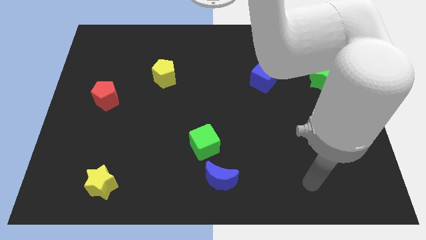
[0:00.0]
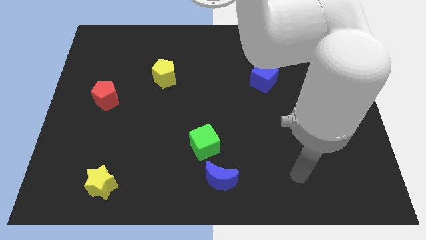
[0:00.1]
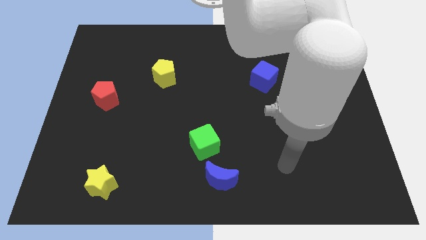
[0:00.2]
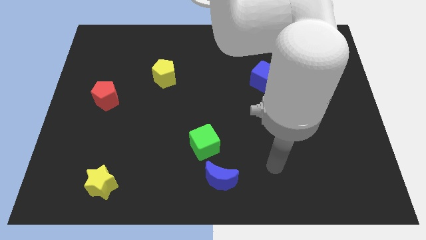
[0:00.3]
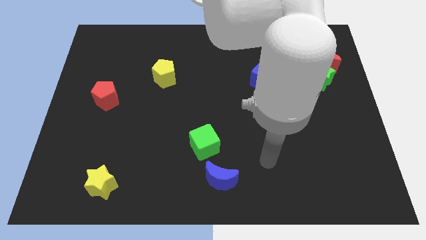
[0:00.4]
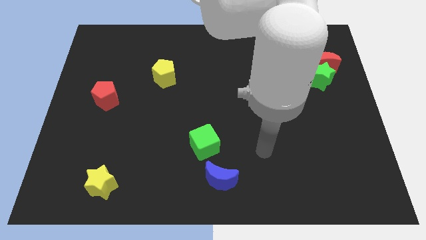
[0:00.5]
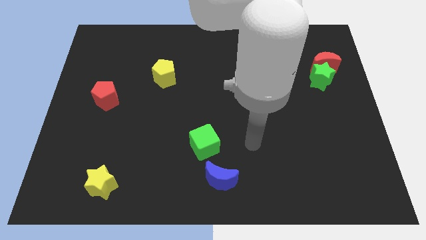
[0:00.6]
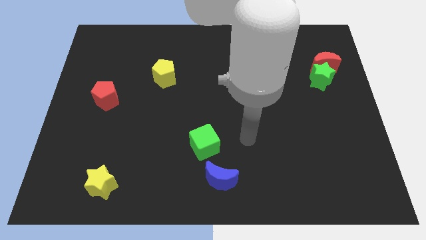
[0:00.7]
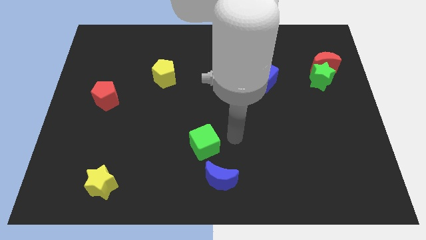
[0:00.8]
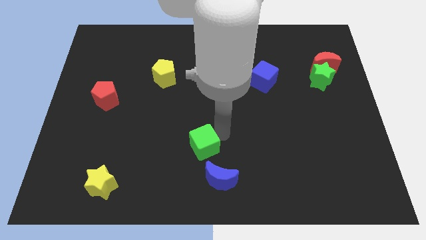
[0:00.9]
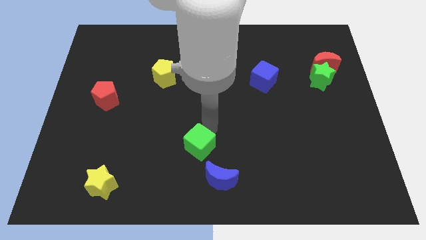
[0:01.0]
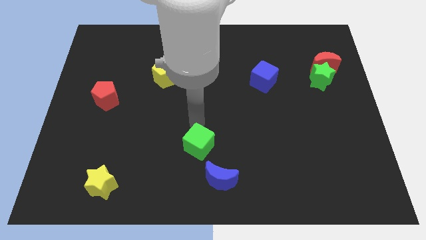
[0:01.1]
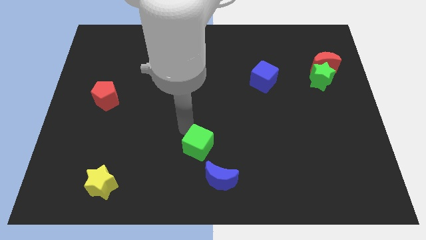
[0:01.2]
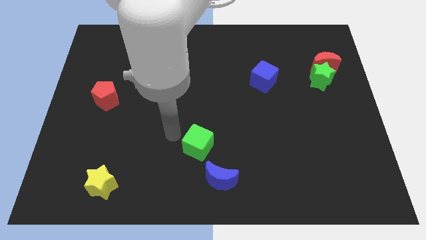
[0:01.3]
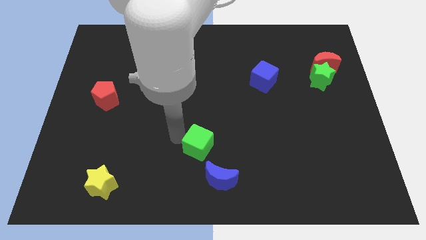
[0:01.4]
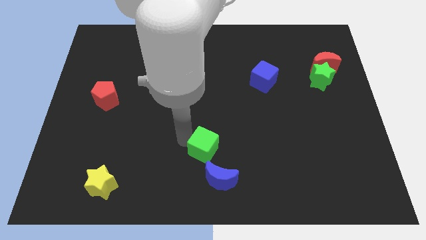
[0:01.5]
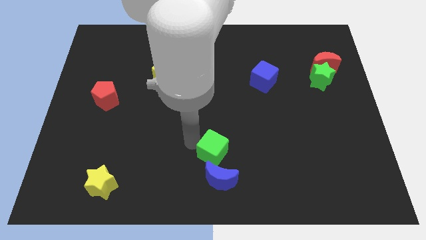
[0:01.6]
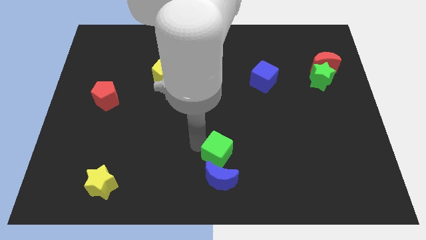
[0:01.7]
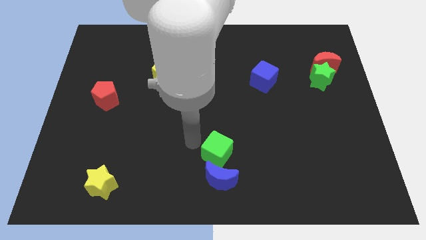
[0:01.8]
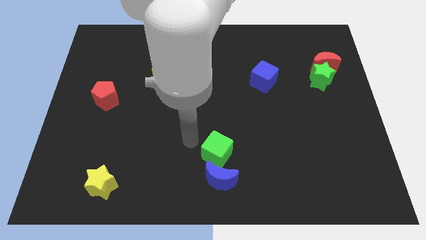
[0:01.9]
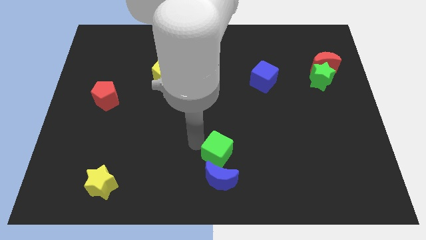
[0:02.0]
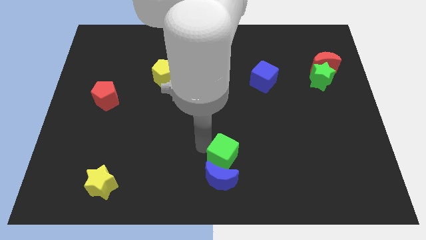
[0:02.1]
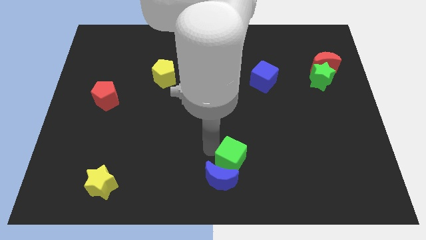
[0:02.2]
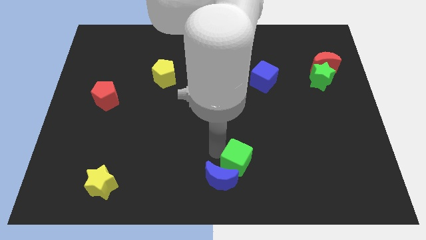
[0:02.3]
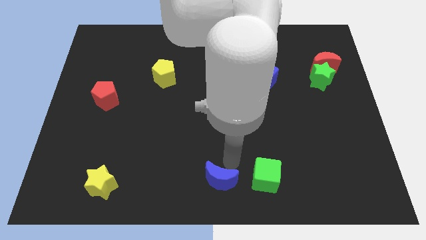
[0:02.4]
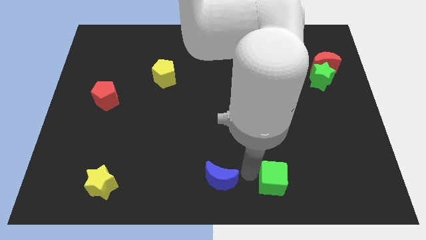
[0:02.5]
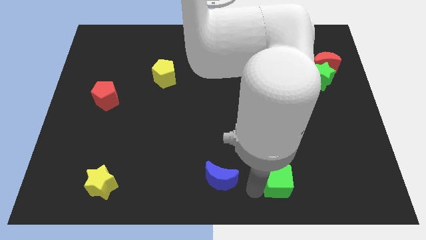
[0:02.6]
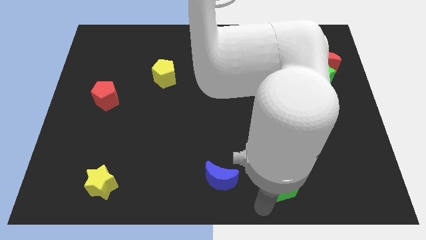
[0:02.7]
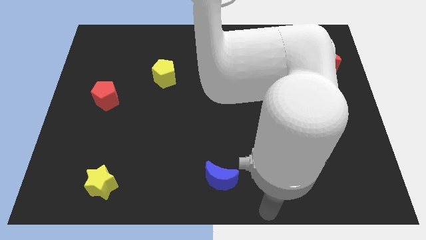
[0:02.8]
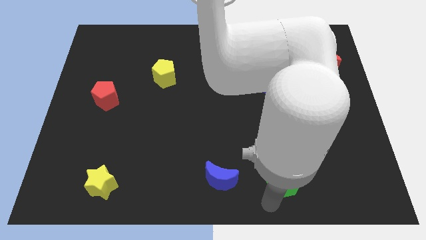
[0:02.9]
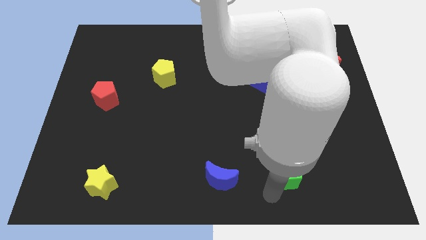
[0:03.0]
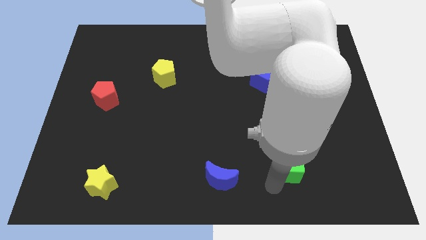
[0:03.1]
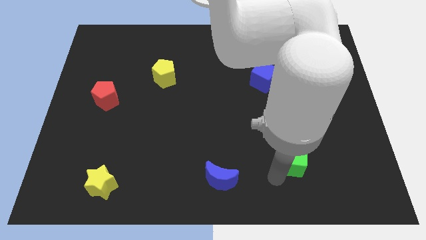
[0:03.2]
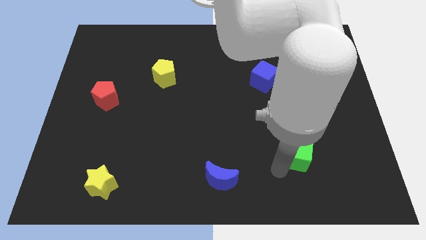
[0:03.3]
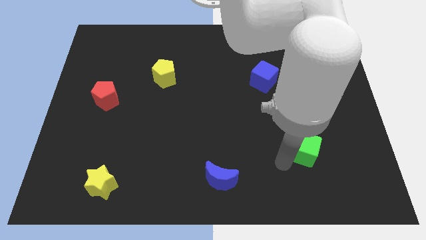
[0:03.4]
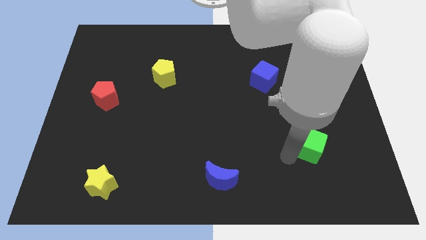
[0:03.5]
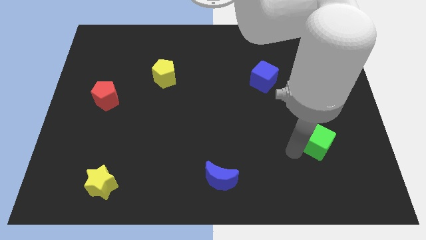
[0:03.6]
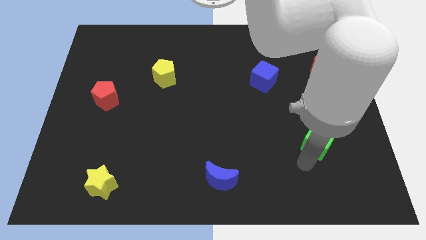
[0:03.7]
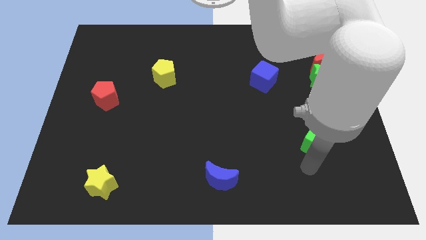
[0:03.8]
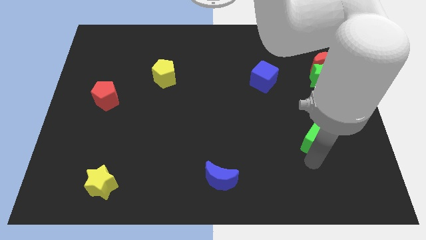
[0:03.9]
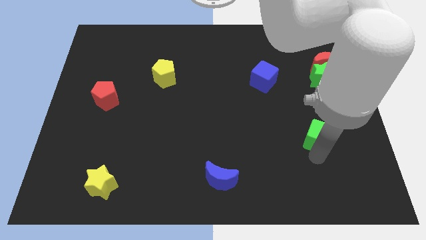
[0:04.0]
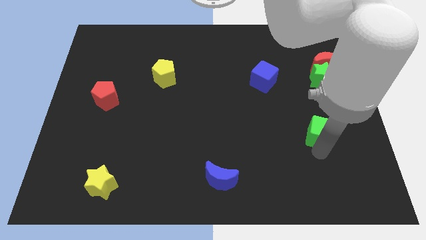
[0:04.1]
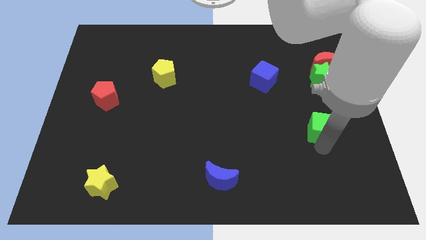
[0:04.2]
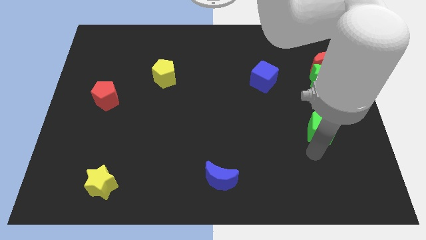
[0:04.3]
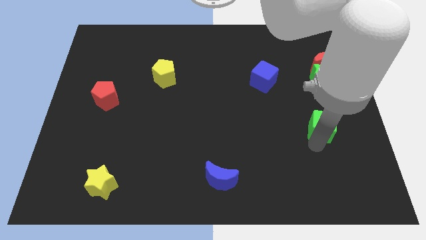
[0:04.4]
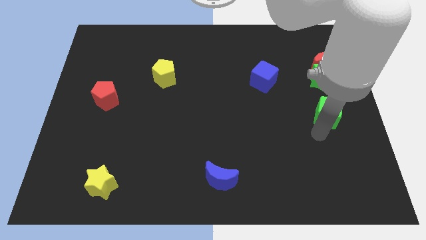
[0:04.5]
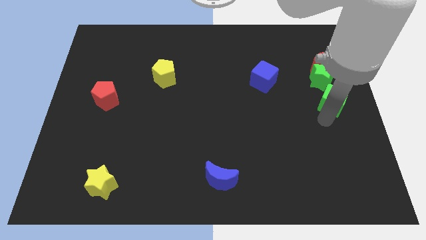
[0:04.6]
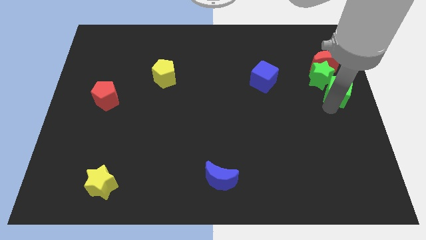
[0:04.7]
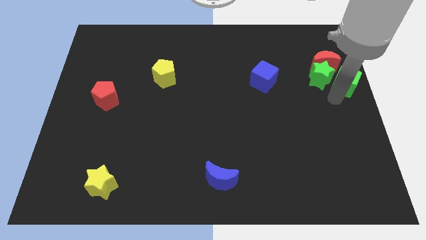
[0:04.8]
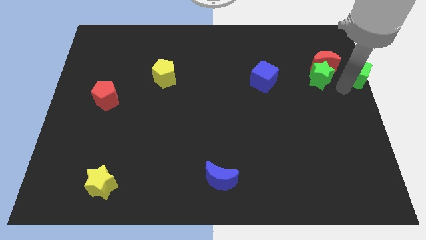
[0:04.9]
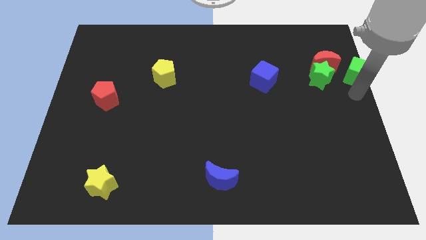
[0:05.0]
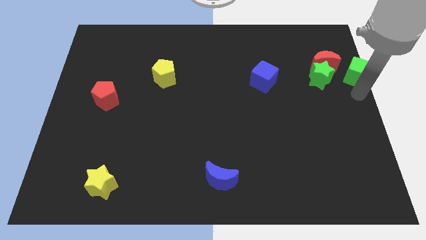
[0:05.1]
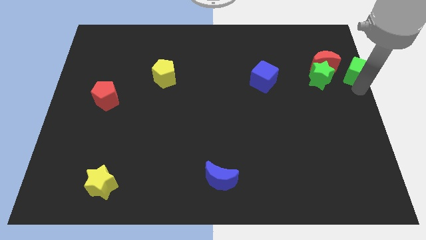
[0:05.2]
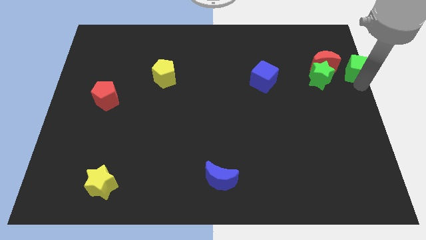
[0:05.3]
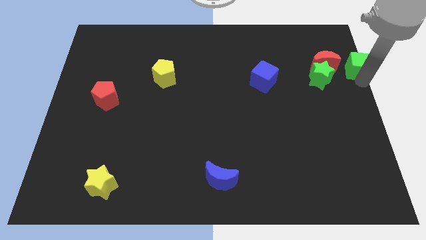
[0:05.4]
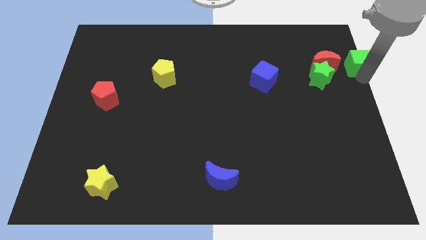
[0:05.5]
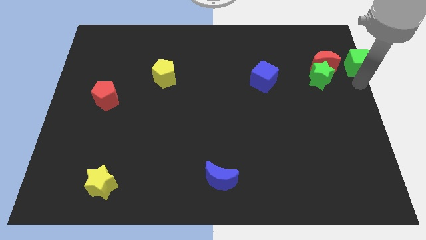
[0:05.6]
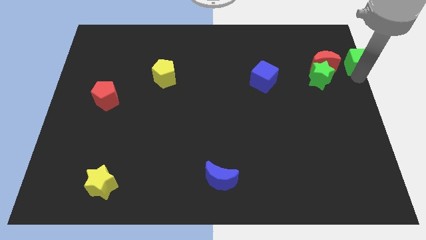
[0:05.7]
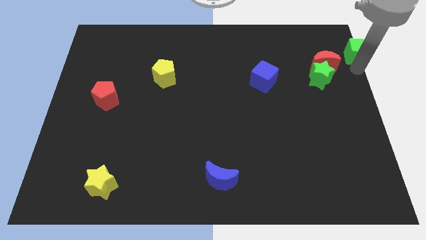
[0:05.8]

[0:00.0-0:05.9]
push the green cube to the top right corner
